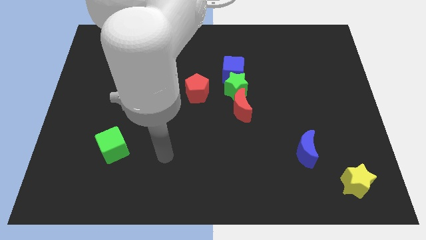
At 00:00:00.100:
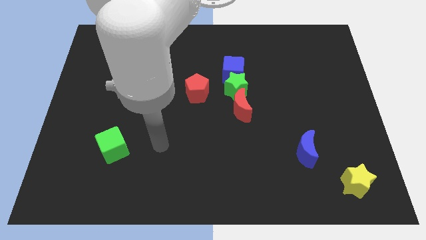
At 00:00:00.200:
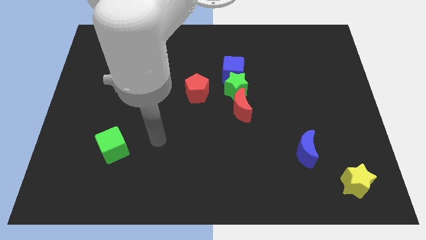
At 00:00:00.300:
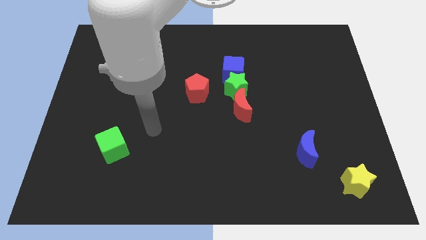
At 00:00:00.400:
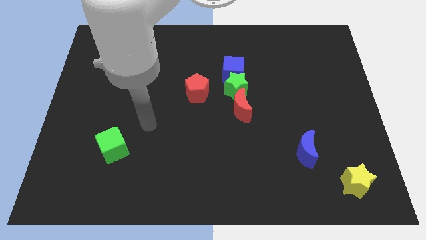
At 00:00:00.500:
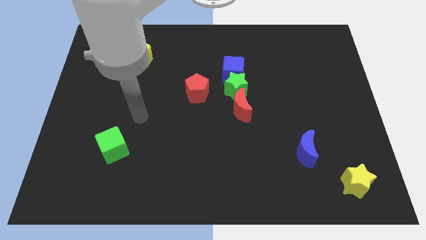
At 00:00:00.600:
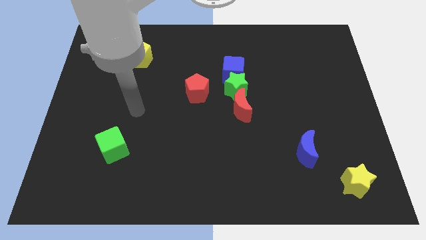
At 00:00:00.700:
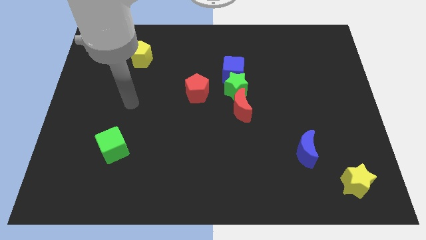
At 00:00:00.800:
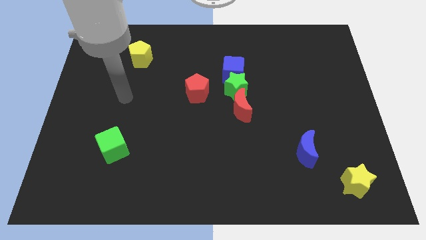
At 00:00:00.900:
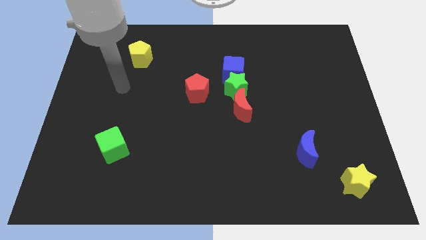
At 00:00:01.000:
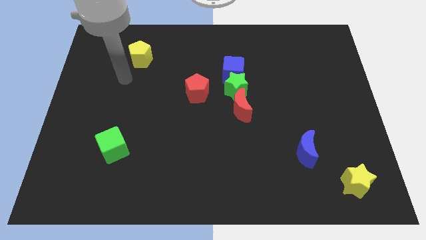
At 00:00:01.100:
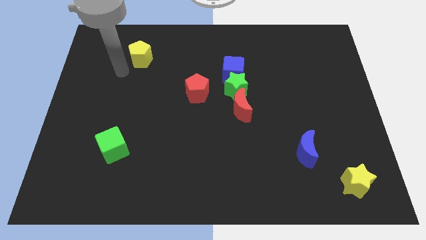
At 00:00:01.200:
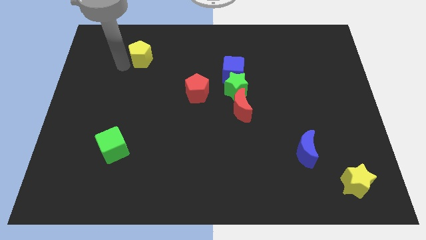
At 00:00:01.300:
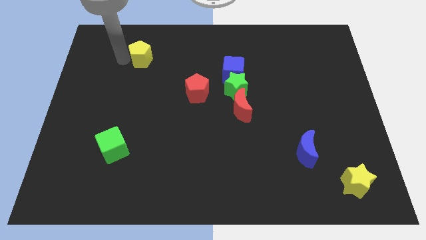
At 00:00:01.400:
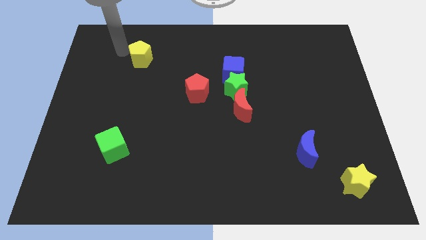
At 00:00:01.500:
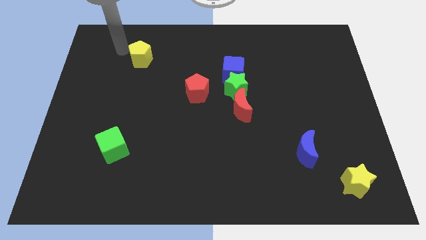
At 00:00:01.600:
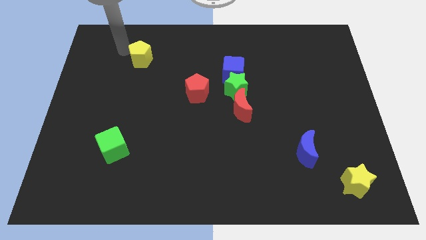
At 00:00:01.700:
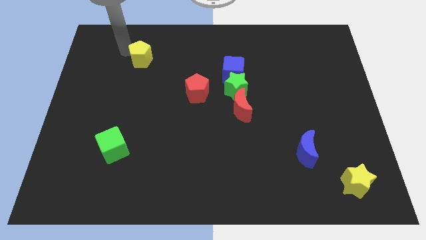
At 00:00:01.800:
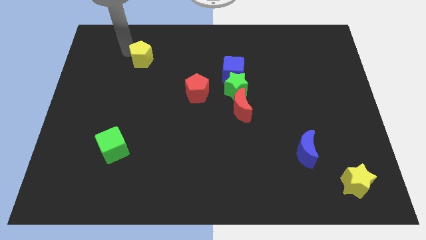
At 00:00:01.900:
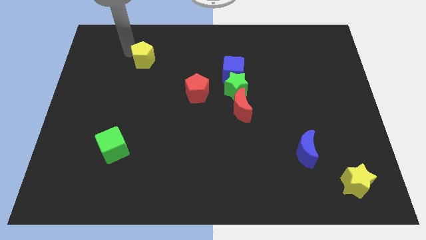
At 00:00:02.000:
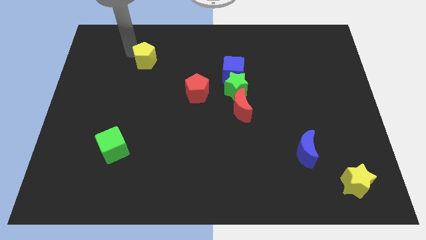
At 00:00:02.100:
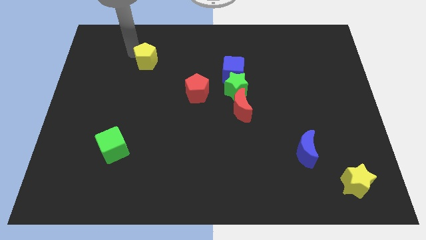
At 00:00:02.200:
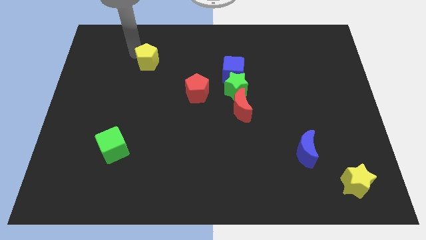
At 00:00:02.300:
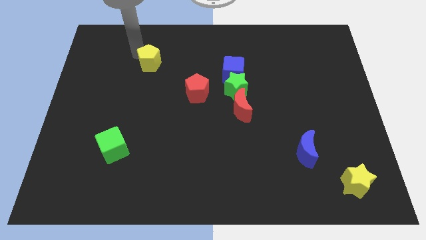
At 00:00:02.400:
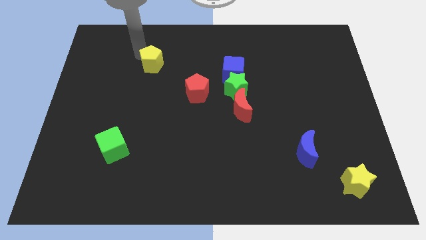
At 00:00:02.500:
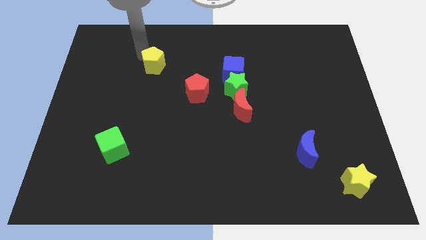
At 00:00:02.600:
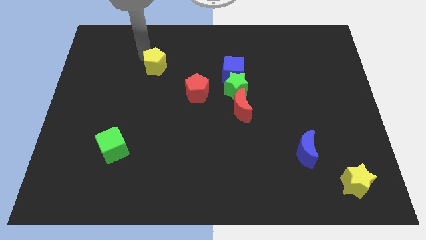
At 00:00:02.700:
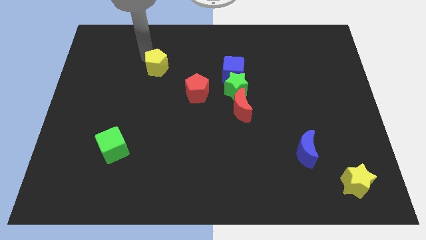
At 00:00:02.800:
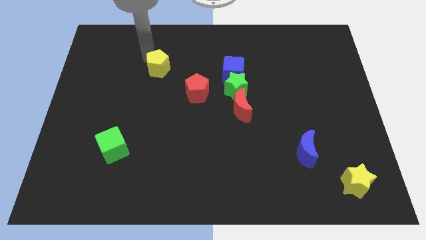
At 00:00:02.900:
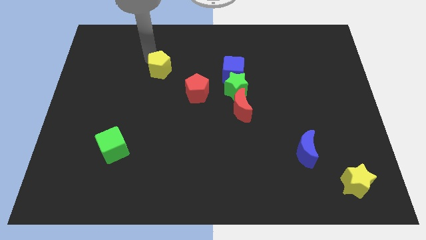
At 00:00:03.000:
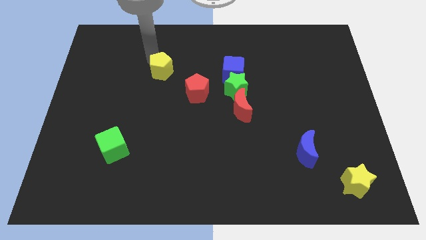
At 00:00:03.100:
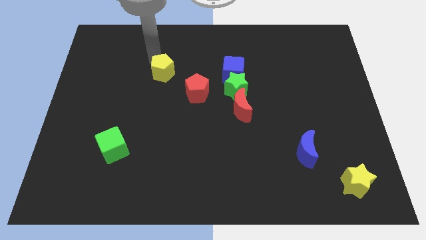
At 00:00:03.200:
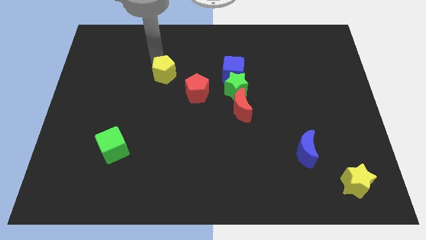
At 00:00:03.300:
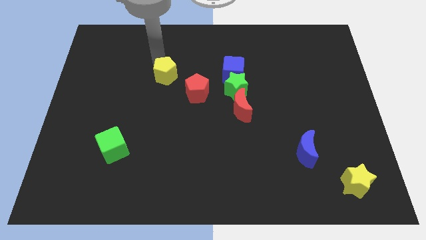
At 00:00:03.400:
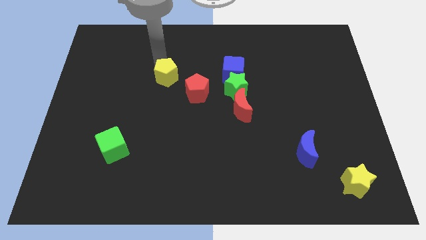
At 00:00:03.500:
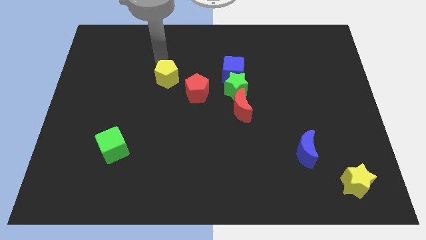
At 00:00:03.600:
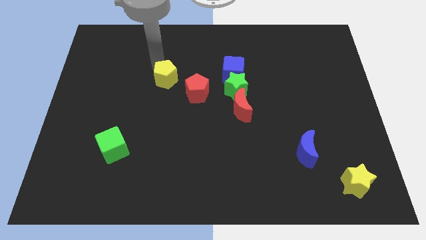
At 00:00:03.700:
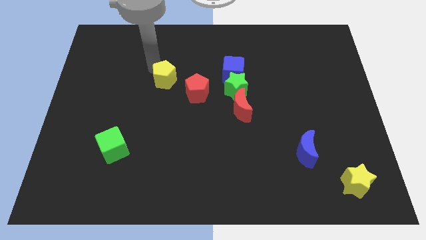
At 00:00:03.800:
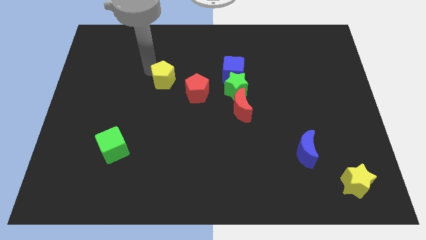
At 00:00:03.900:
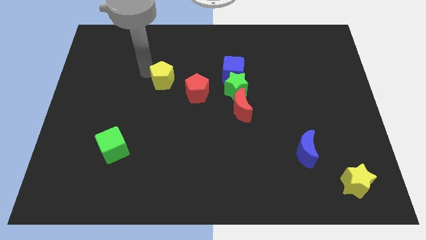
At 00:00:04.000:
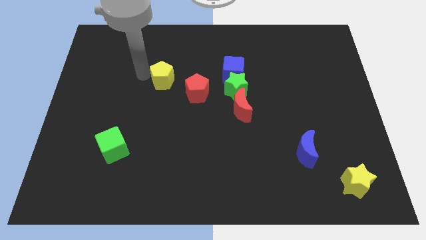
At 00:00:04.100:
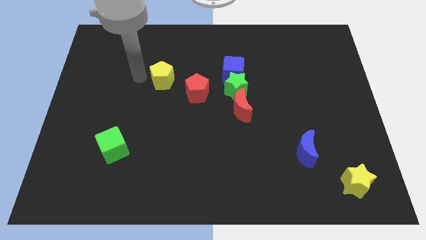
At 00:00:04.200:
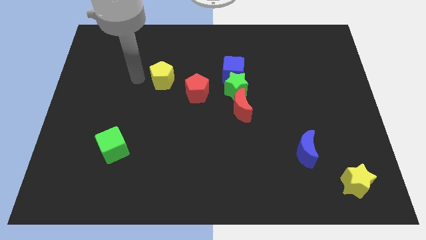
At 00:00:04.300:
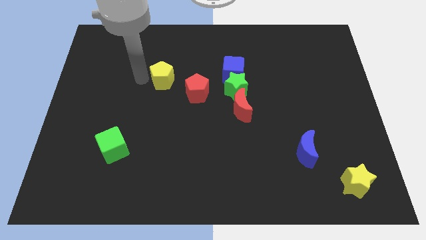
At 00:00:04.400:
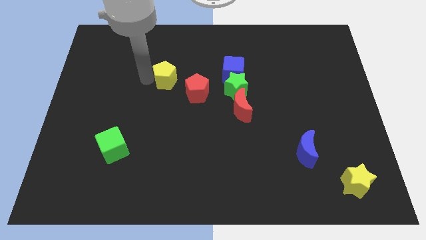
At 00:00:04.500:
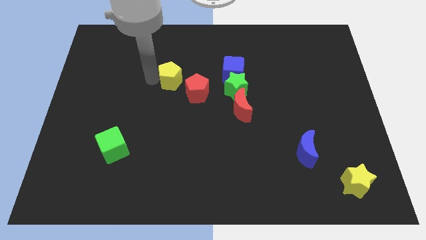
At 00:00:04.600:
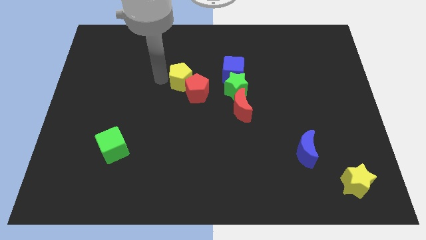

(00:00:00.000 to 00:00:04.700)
slide the yellow pentagon close to the red pentagon

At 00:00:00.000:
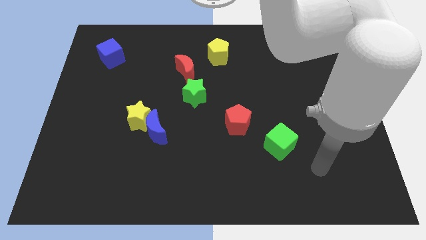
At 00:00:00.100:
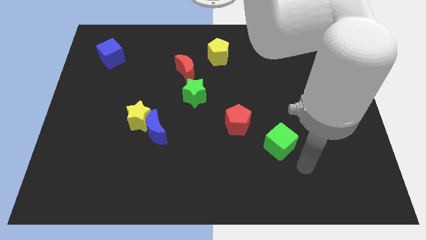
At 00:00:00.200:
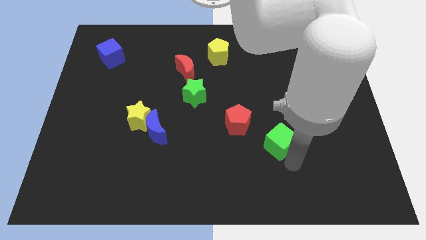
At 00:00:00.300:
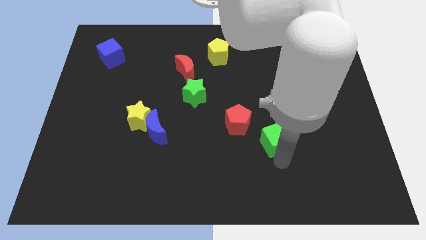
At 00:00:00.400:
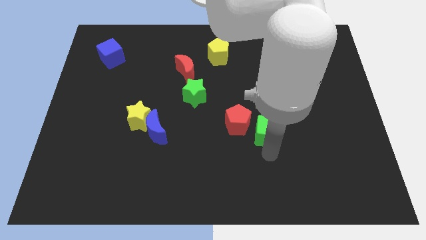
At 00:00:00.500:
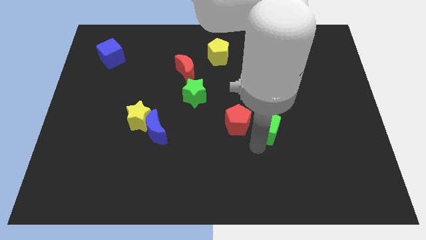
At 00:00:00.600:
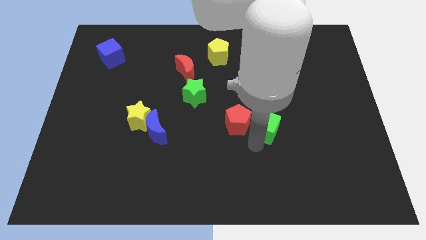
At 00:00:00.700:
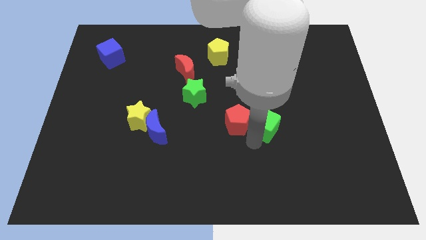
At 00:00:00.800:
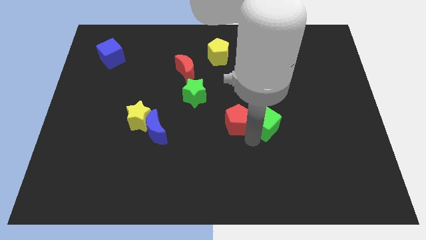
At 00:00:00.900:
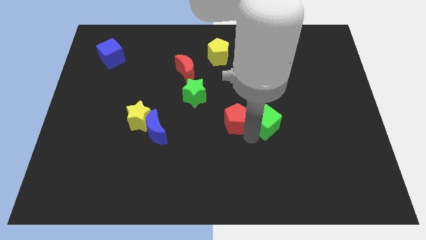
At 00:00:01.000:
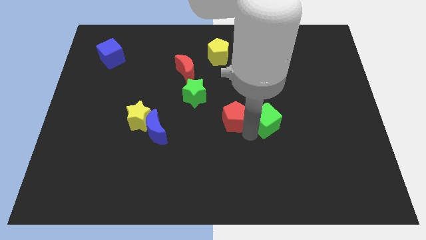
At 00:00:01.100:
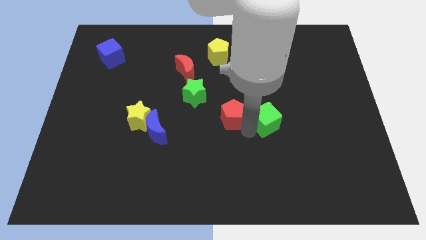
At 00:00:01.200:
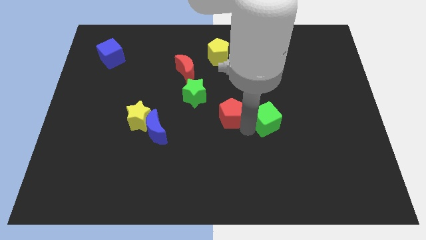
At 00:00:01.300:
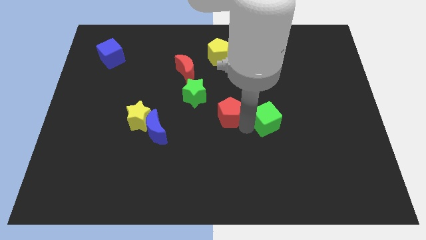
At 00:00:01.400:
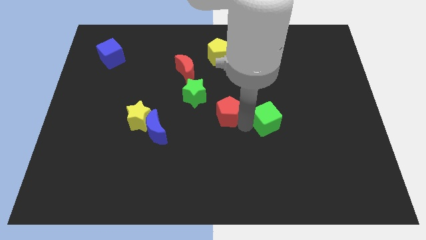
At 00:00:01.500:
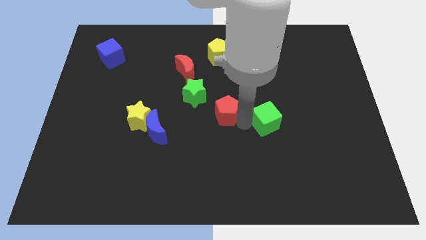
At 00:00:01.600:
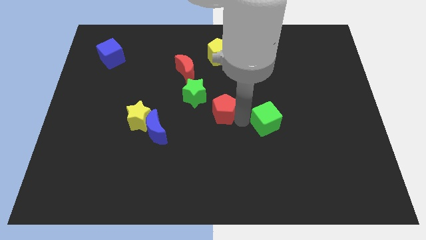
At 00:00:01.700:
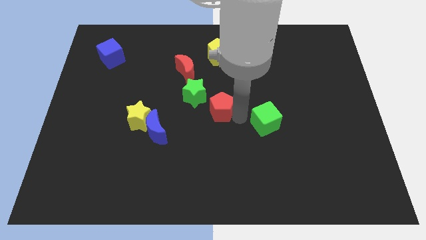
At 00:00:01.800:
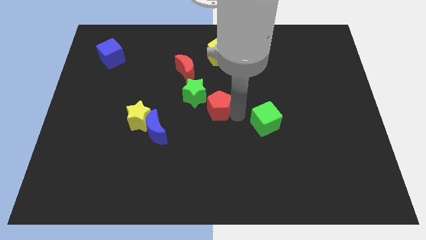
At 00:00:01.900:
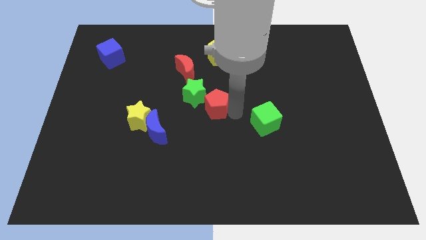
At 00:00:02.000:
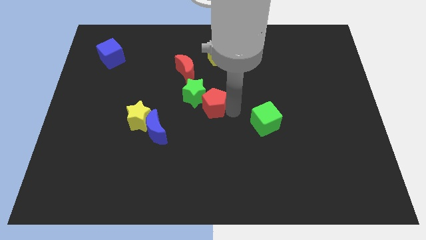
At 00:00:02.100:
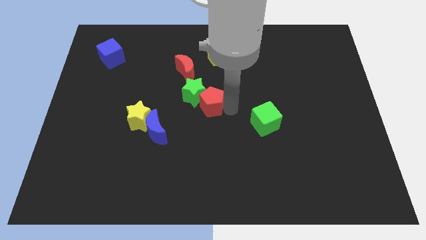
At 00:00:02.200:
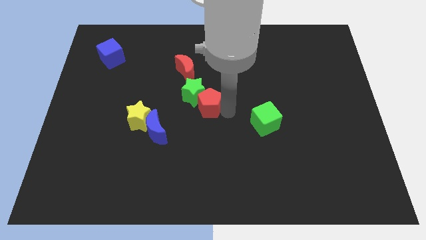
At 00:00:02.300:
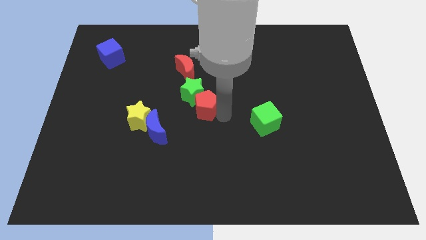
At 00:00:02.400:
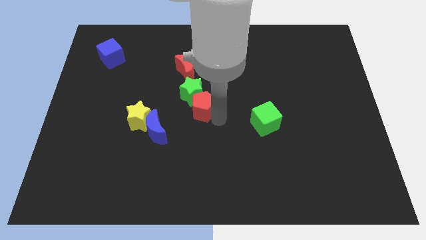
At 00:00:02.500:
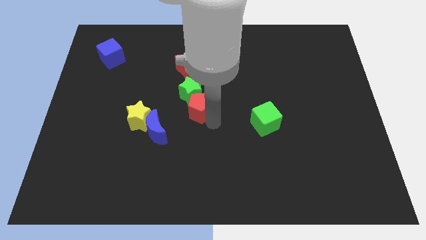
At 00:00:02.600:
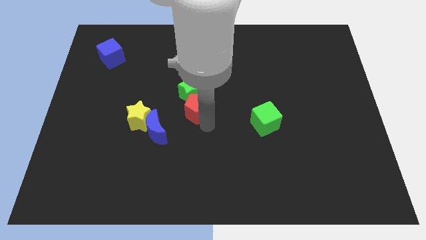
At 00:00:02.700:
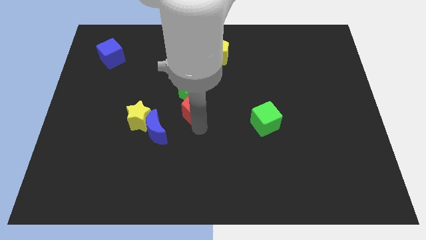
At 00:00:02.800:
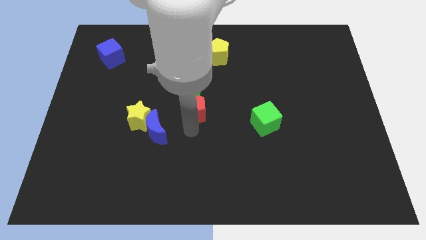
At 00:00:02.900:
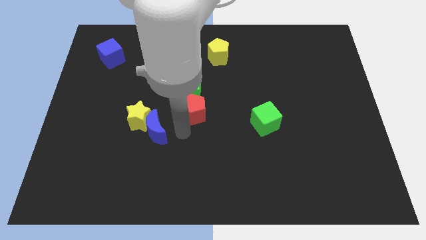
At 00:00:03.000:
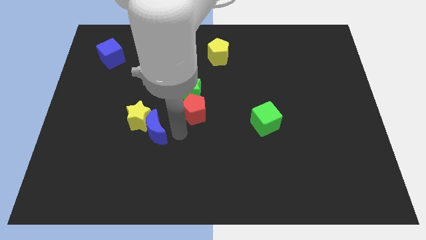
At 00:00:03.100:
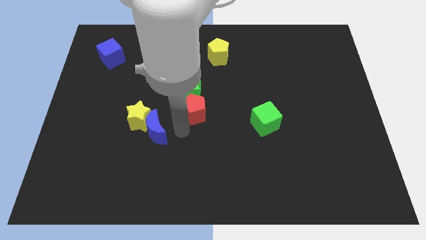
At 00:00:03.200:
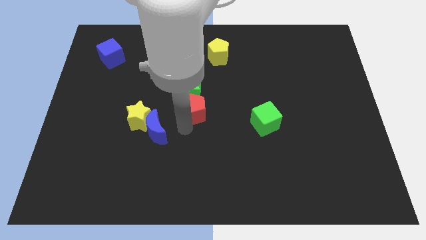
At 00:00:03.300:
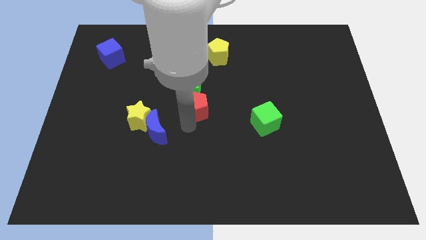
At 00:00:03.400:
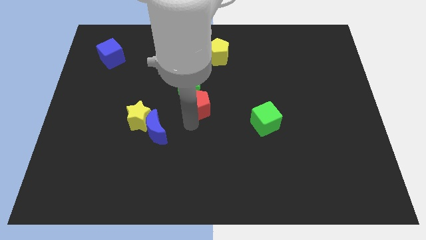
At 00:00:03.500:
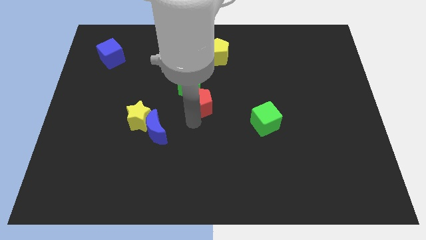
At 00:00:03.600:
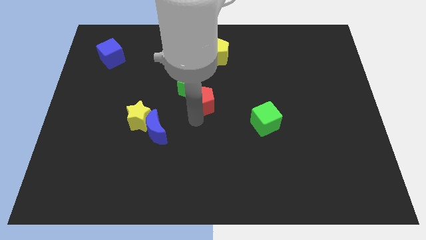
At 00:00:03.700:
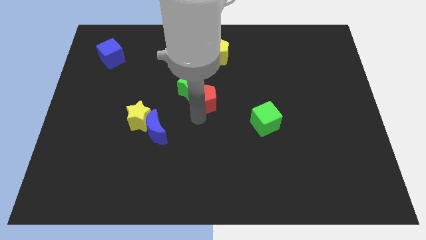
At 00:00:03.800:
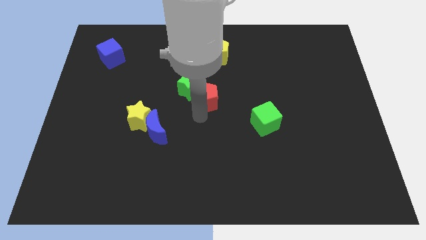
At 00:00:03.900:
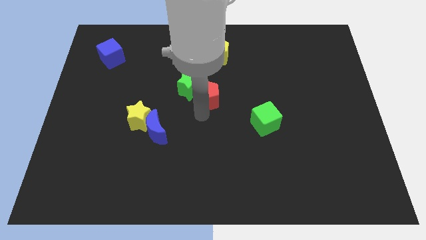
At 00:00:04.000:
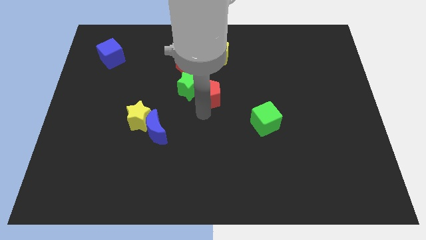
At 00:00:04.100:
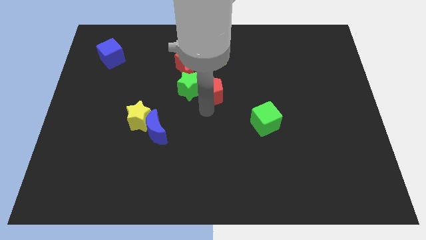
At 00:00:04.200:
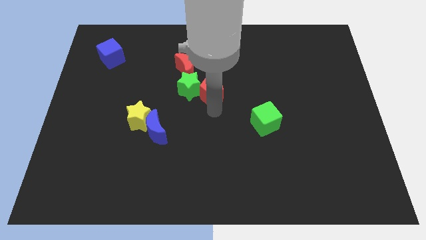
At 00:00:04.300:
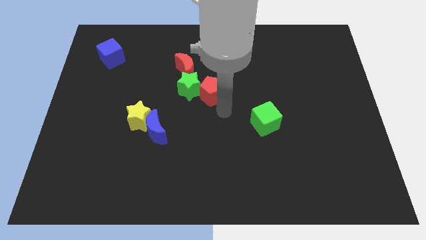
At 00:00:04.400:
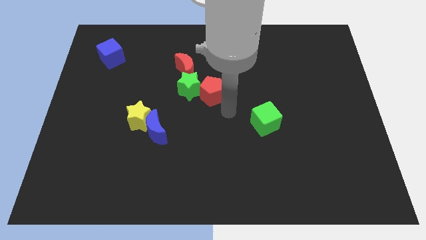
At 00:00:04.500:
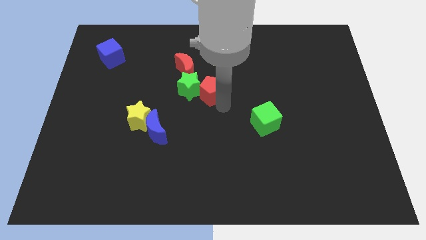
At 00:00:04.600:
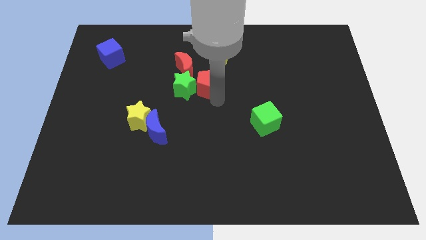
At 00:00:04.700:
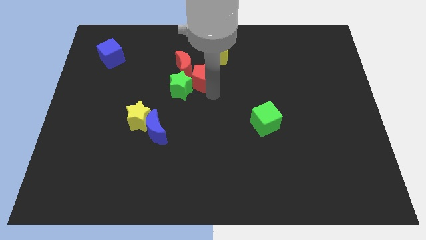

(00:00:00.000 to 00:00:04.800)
slide the red pentagon to the red moon
